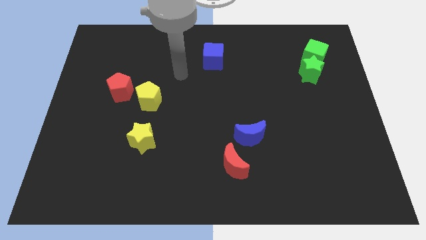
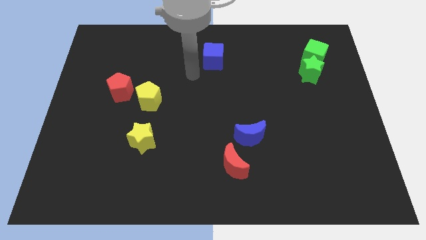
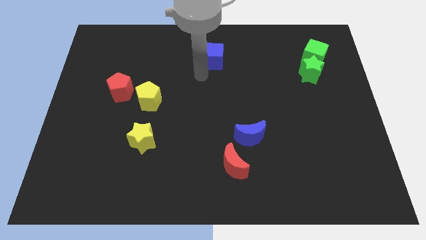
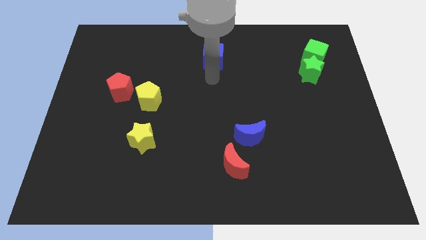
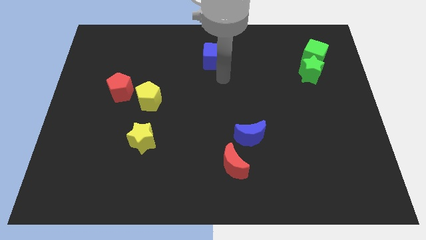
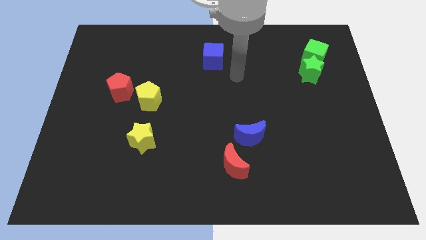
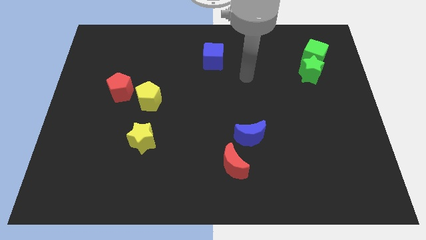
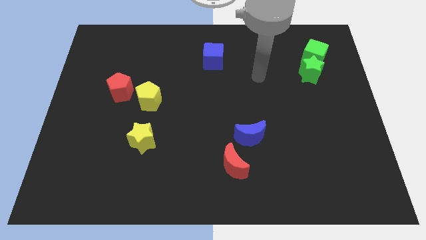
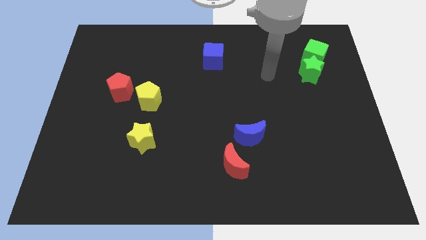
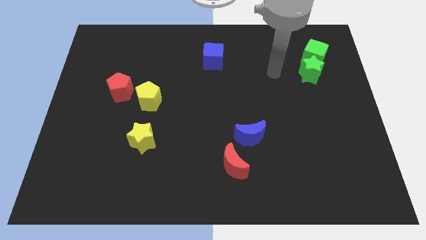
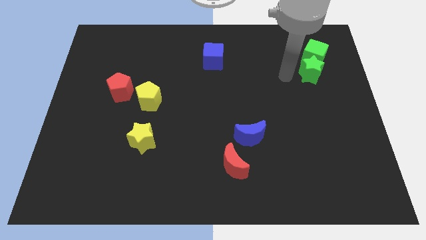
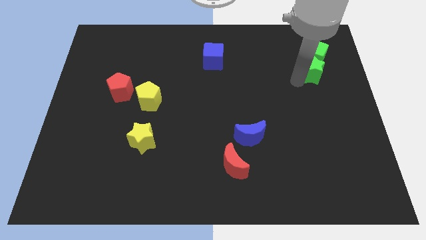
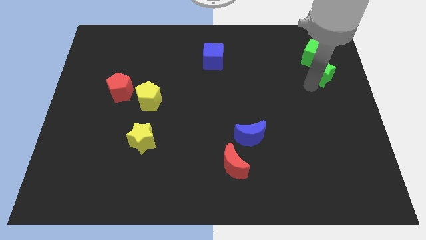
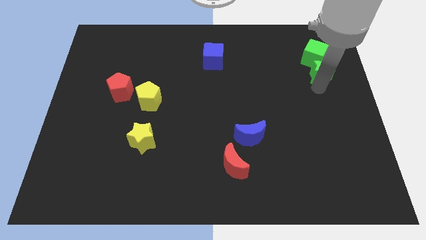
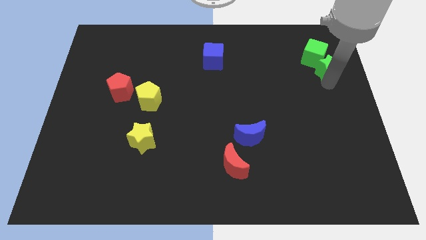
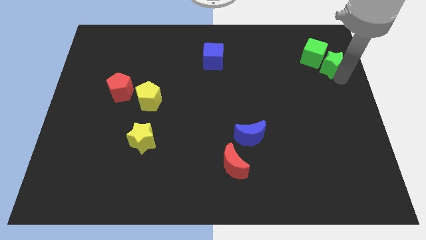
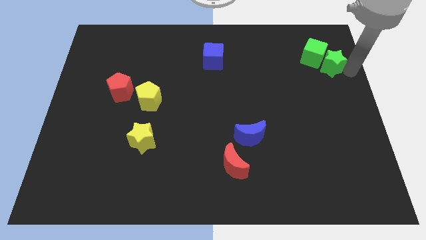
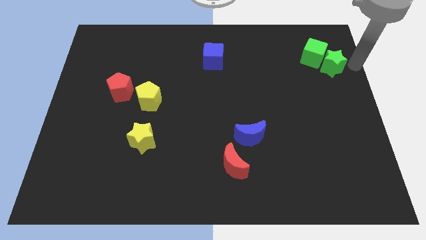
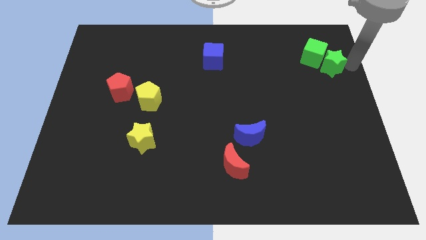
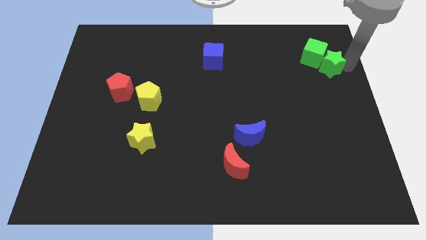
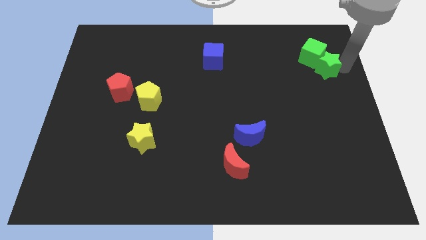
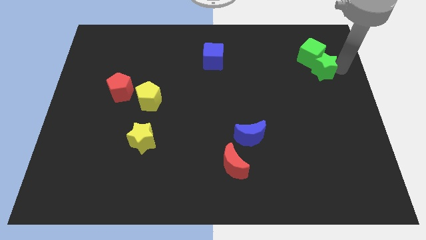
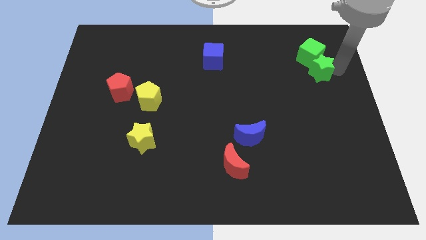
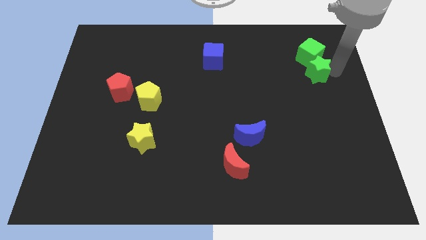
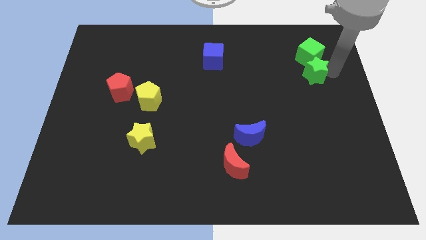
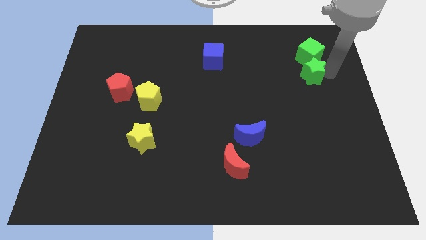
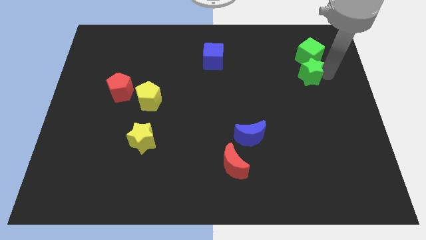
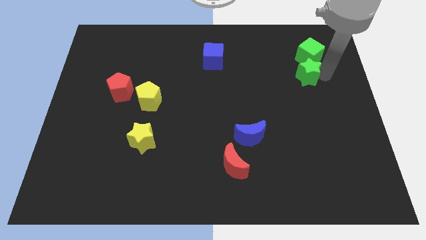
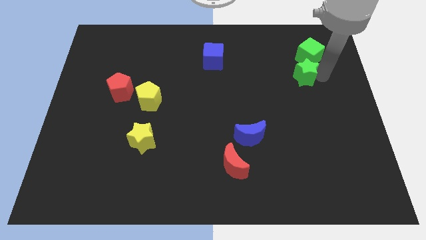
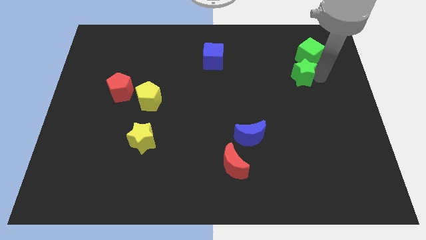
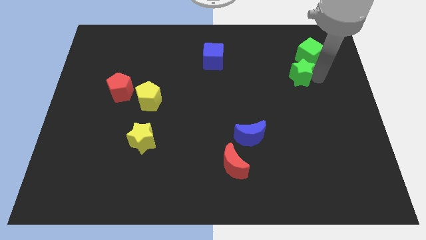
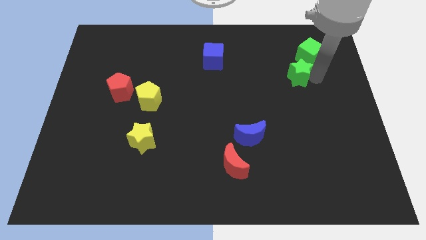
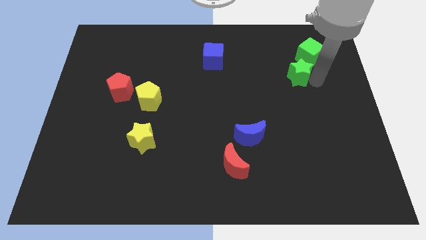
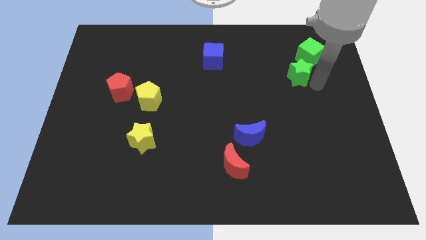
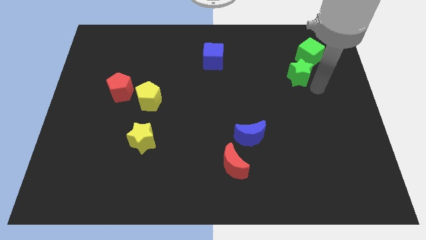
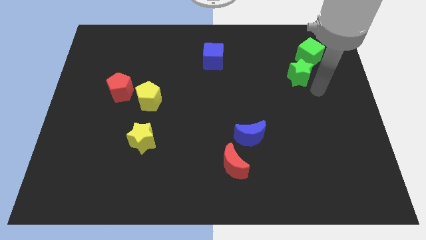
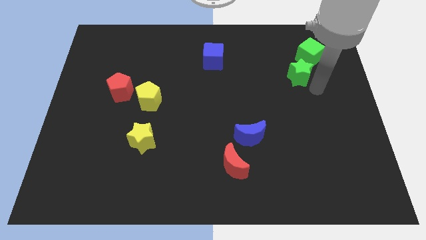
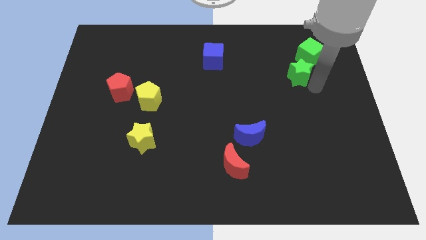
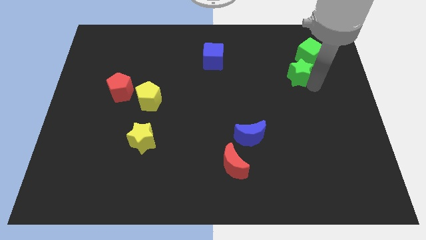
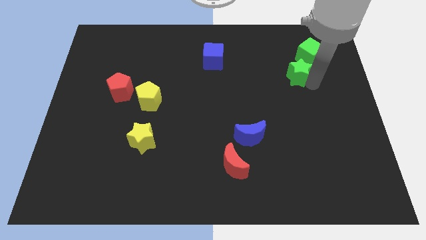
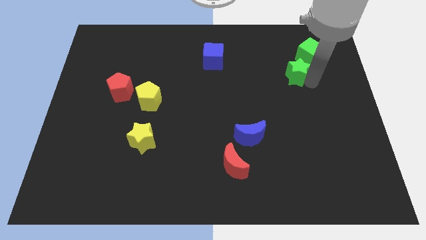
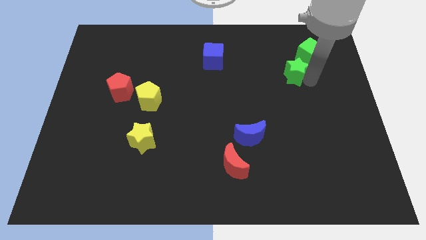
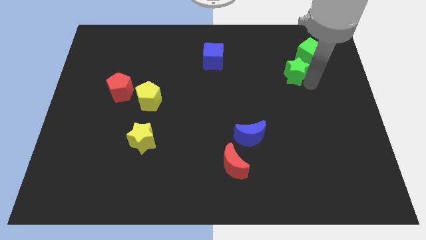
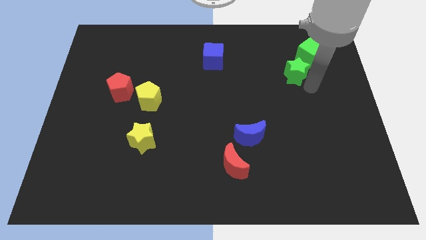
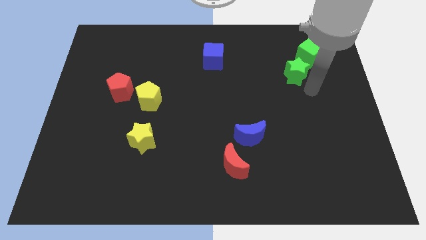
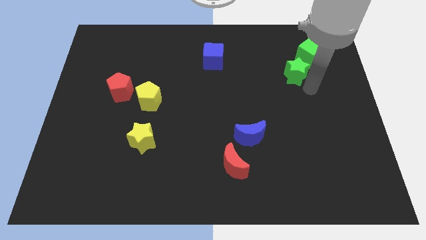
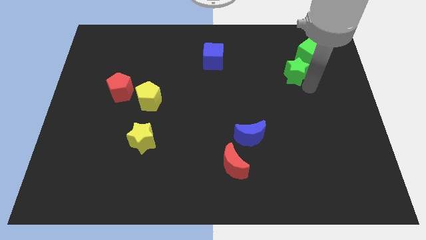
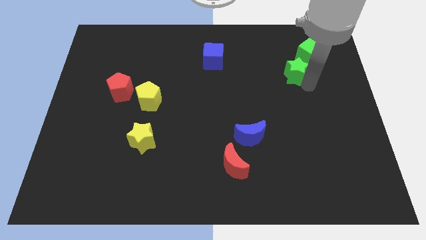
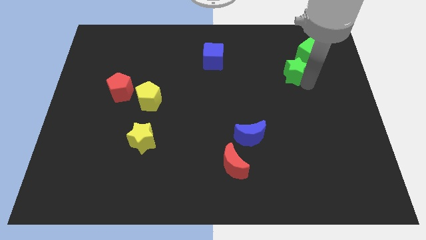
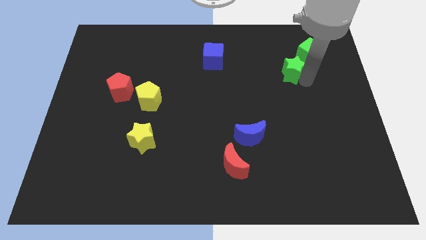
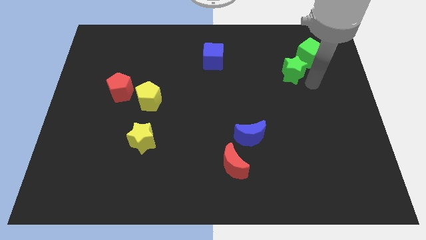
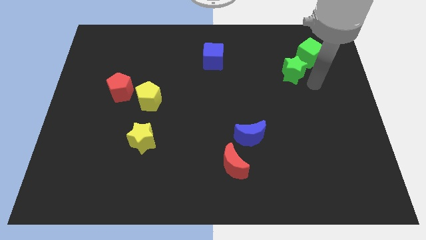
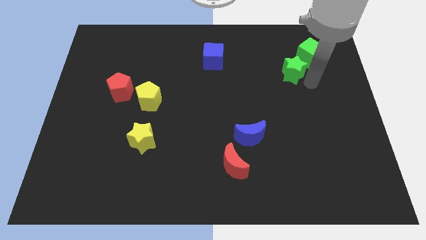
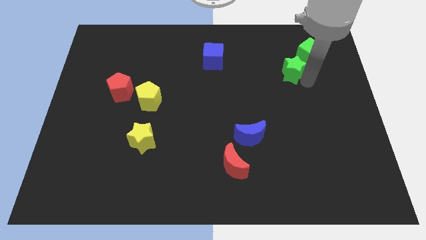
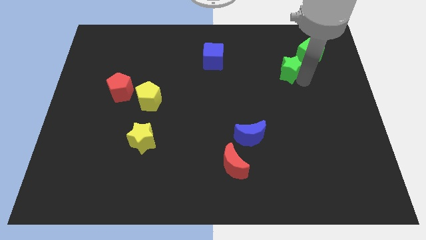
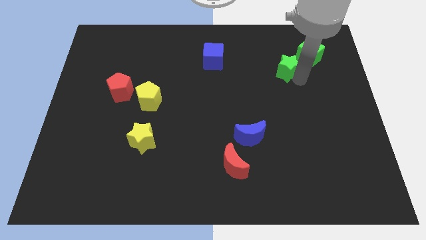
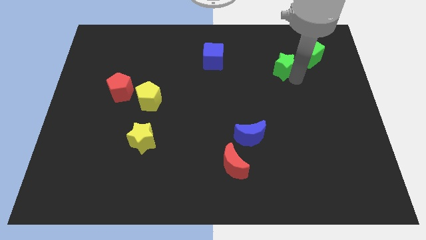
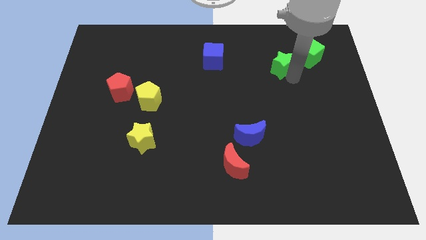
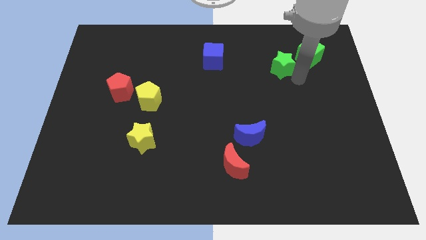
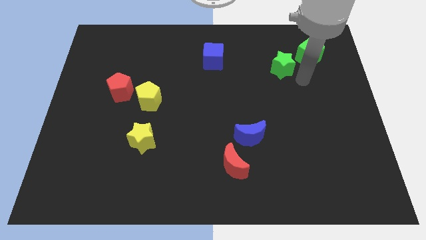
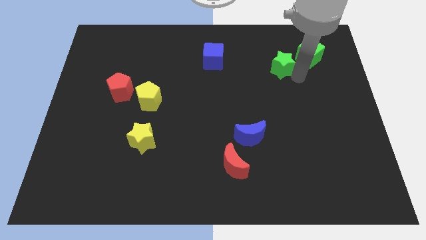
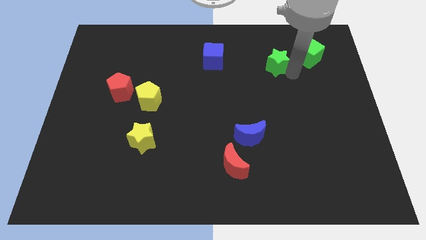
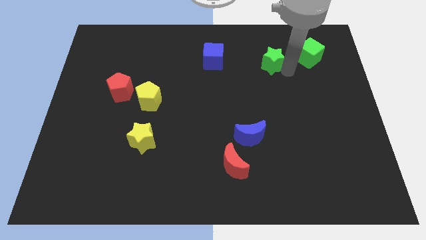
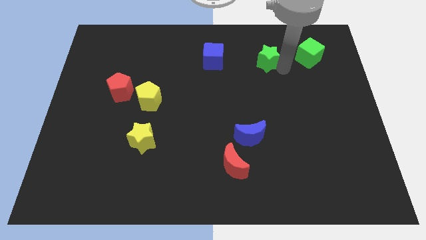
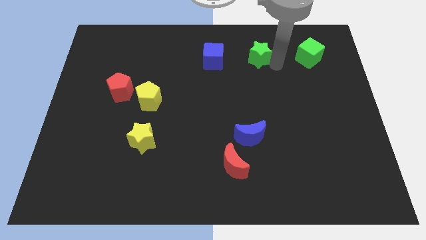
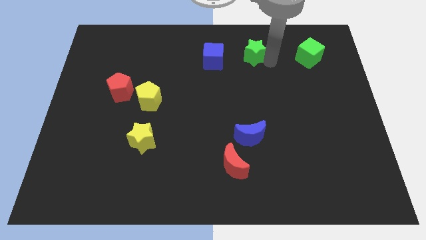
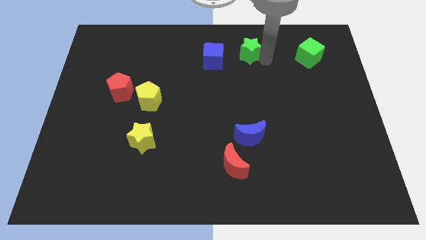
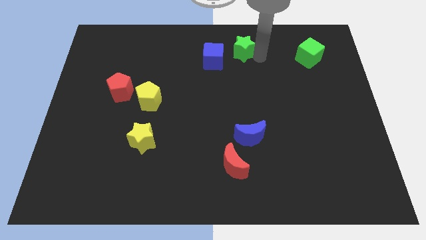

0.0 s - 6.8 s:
slide the green star to the towards your base
